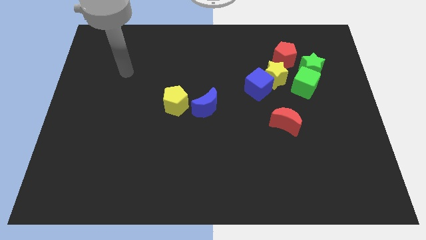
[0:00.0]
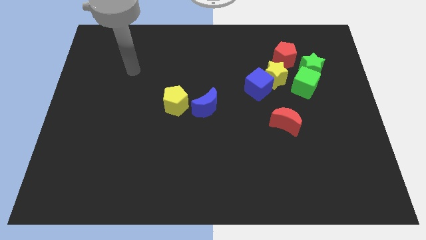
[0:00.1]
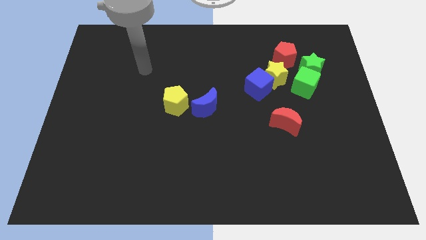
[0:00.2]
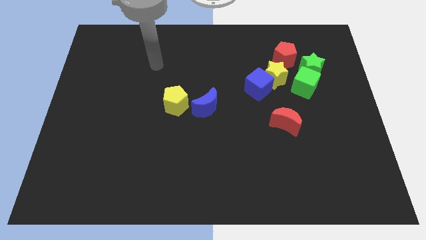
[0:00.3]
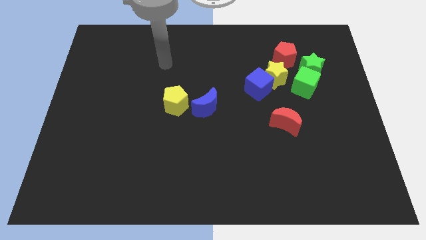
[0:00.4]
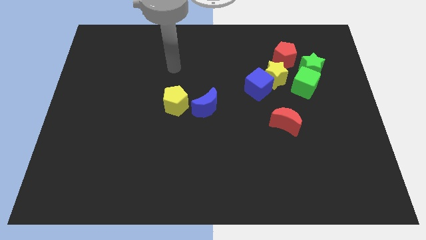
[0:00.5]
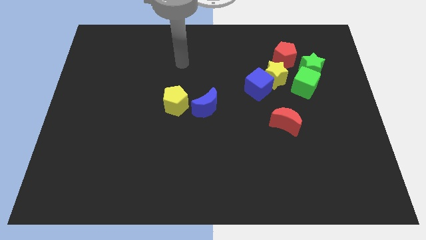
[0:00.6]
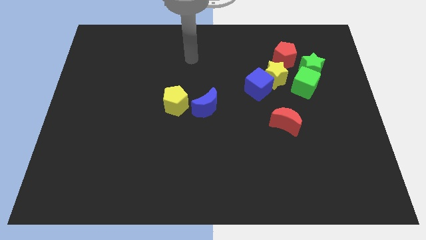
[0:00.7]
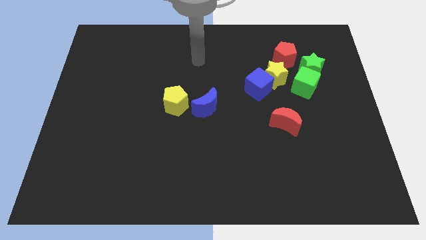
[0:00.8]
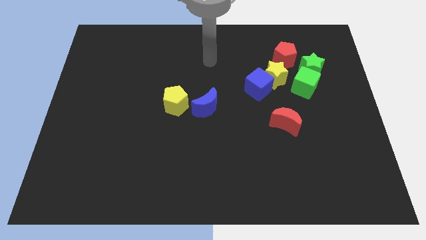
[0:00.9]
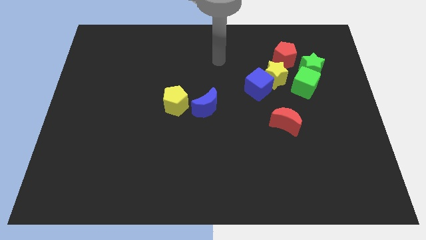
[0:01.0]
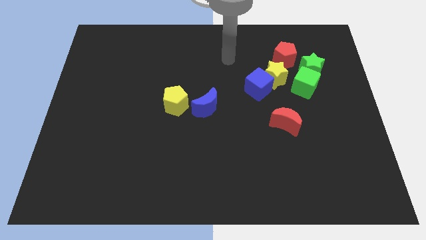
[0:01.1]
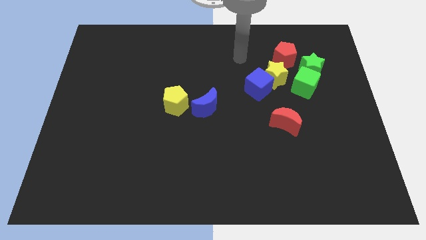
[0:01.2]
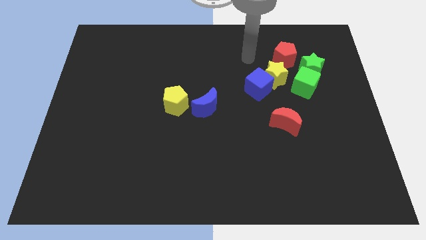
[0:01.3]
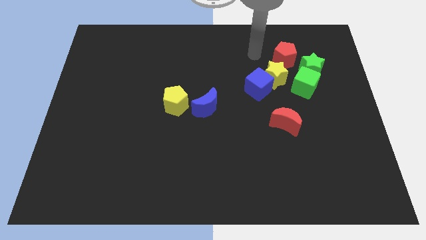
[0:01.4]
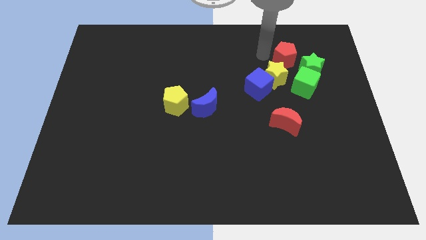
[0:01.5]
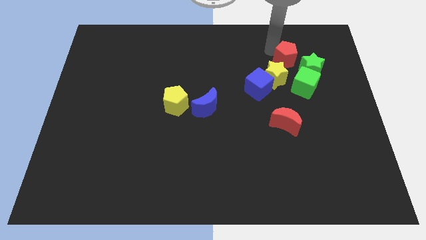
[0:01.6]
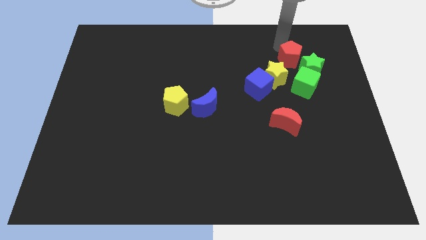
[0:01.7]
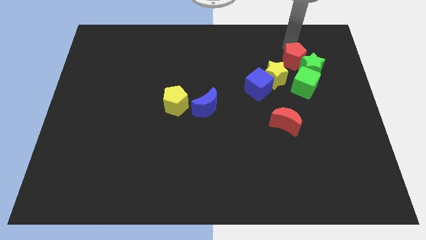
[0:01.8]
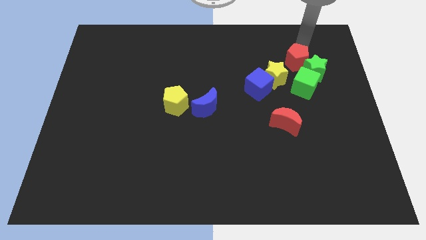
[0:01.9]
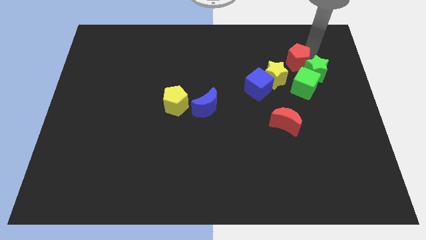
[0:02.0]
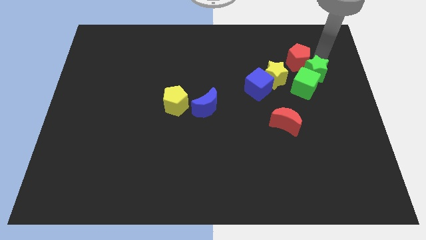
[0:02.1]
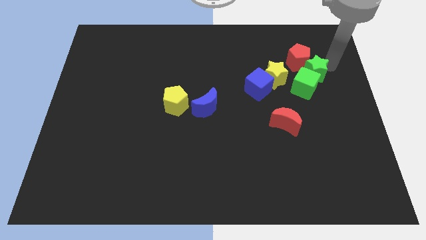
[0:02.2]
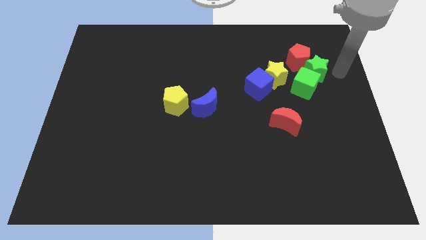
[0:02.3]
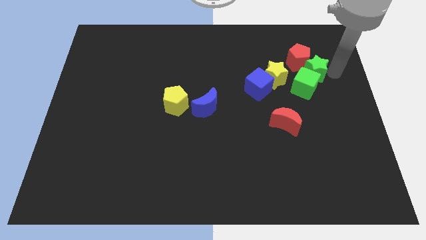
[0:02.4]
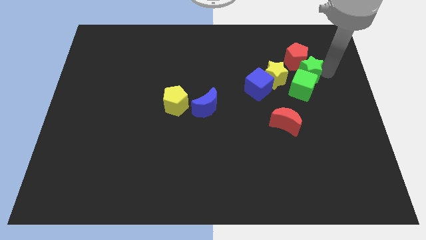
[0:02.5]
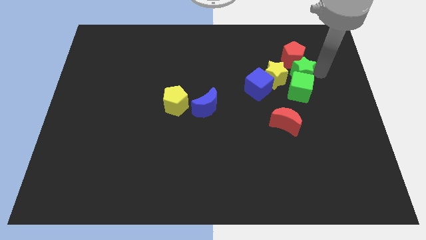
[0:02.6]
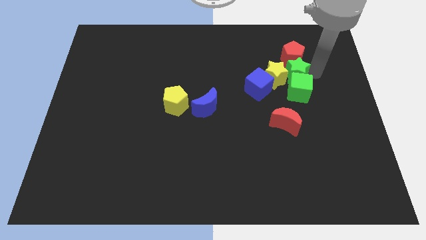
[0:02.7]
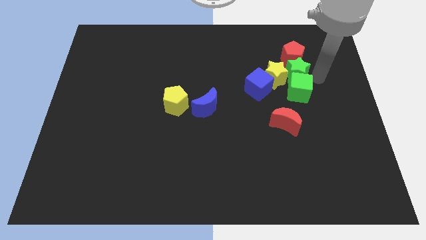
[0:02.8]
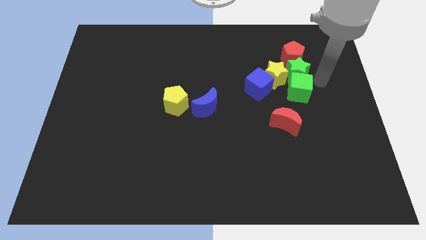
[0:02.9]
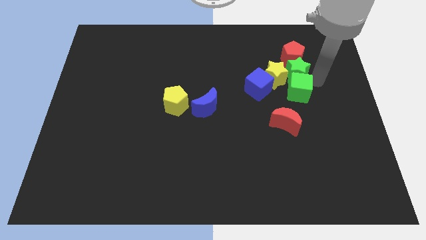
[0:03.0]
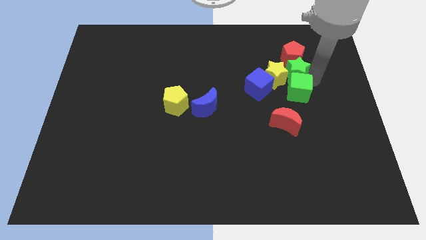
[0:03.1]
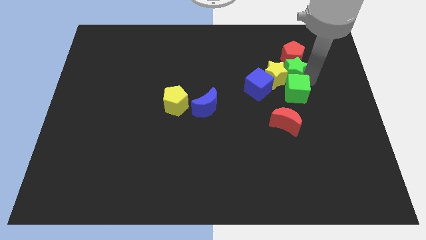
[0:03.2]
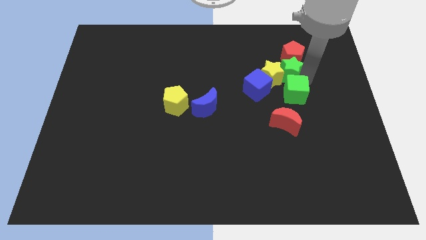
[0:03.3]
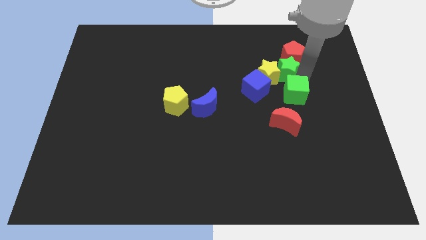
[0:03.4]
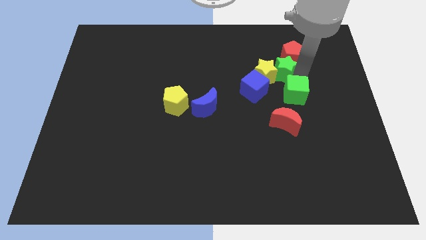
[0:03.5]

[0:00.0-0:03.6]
push the green star to the left a little

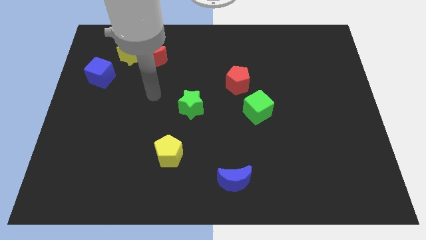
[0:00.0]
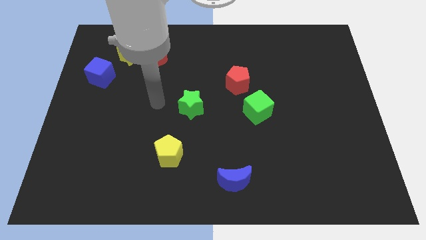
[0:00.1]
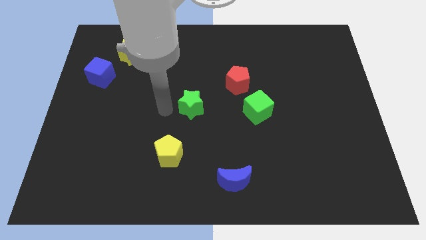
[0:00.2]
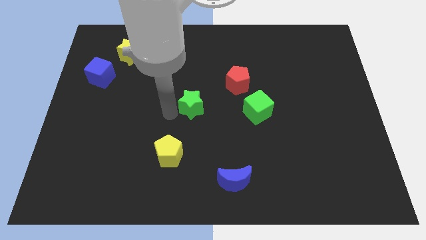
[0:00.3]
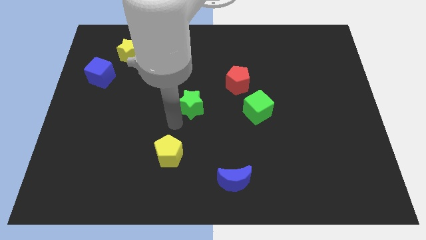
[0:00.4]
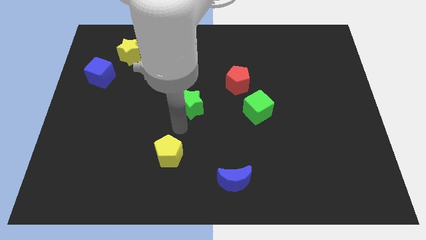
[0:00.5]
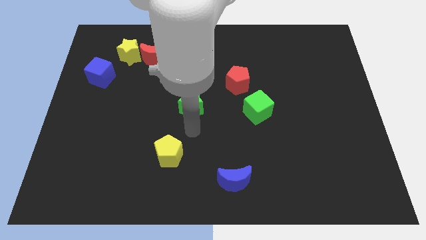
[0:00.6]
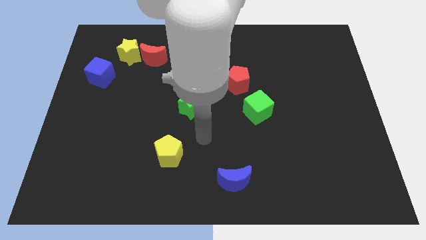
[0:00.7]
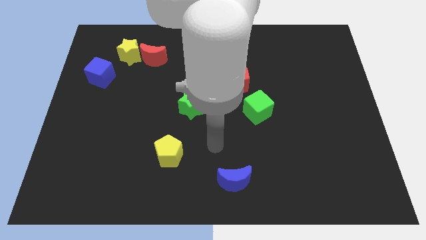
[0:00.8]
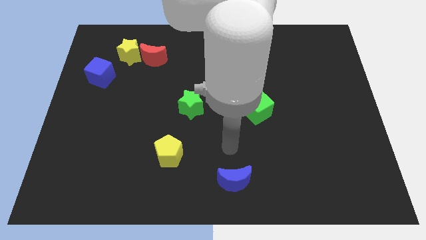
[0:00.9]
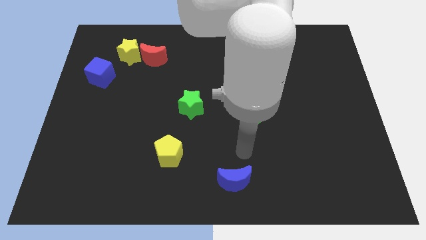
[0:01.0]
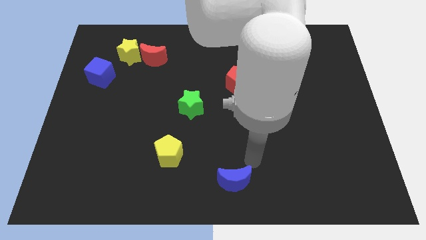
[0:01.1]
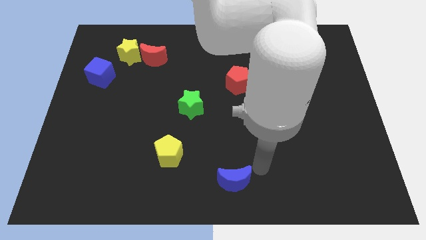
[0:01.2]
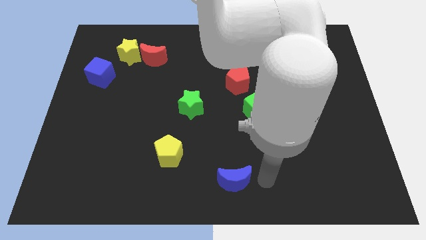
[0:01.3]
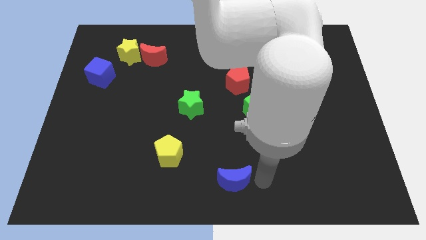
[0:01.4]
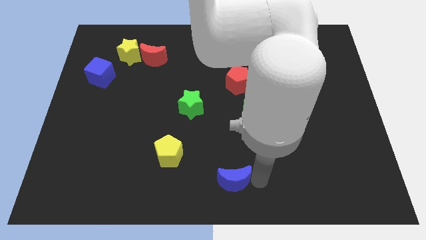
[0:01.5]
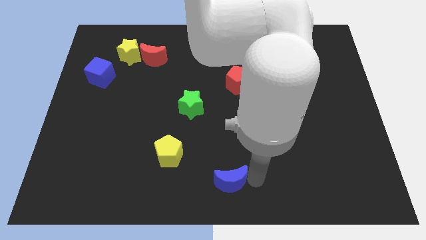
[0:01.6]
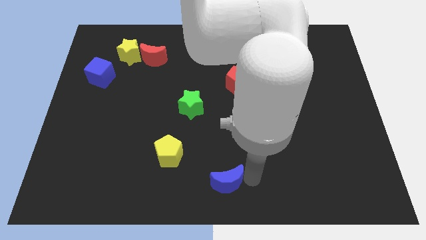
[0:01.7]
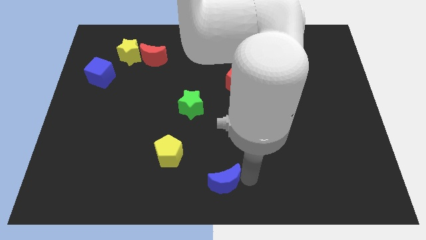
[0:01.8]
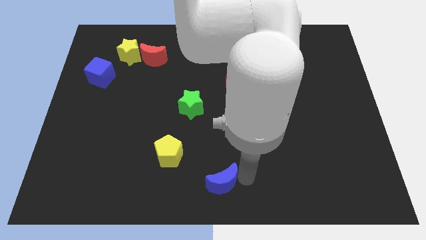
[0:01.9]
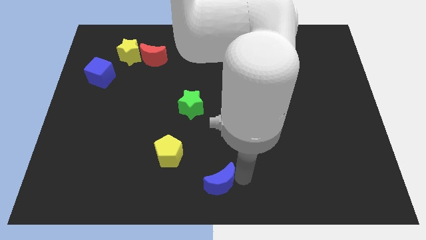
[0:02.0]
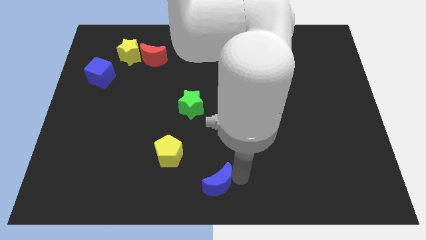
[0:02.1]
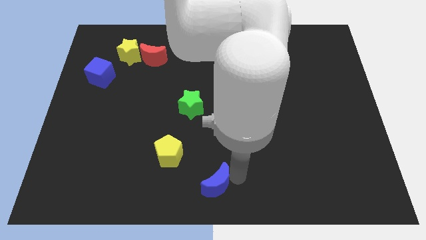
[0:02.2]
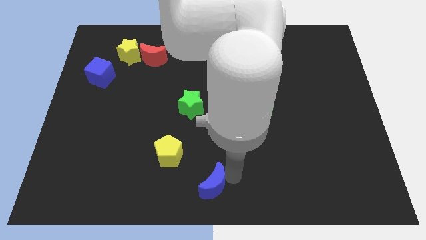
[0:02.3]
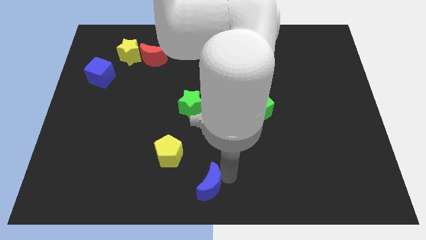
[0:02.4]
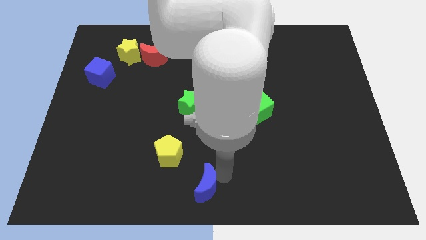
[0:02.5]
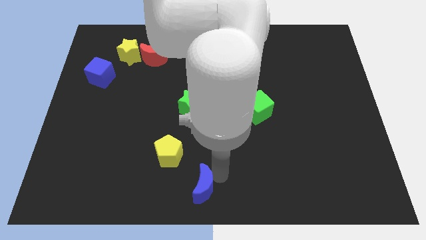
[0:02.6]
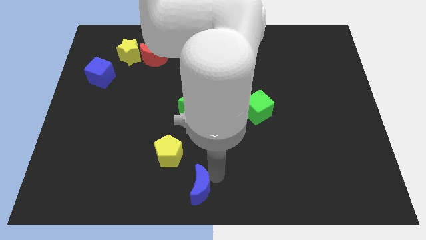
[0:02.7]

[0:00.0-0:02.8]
slightly move the blue moon left

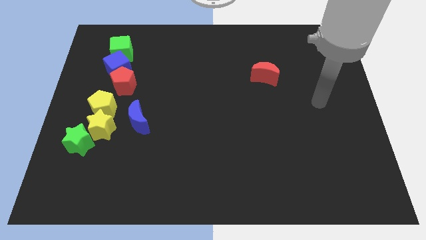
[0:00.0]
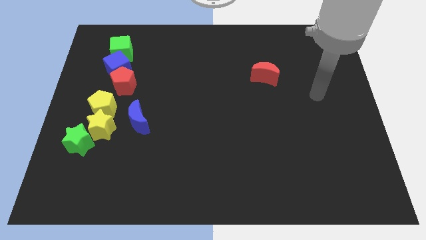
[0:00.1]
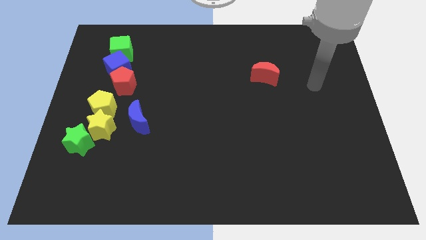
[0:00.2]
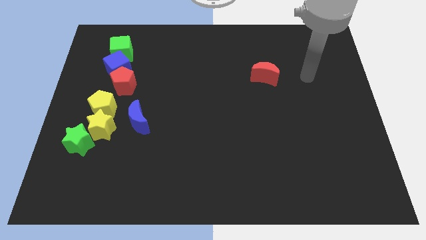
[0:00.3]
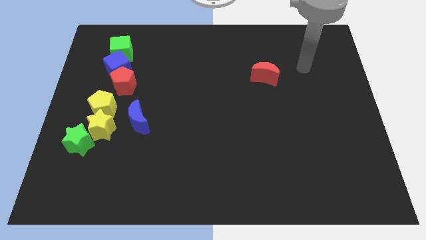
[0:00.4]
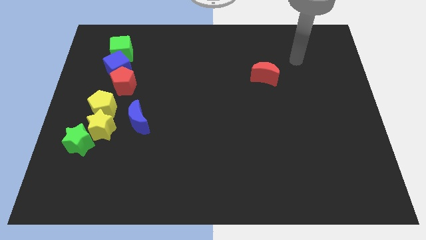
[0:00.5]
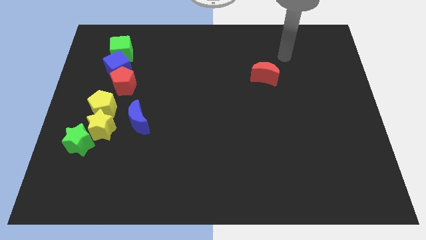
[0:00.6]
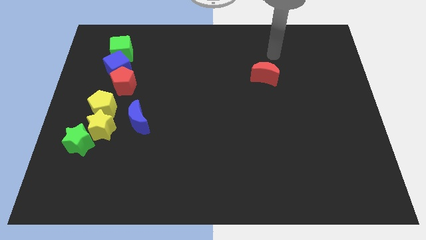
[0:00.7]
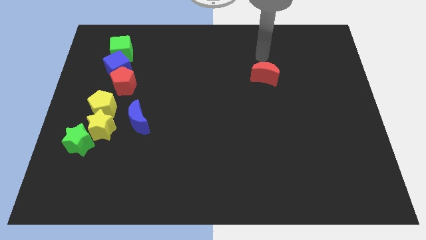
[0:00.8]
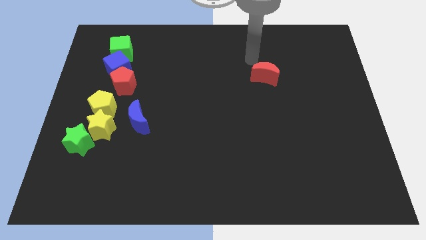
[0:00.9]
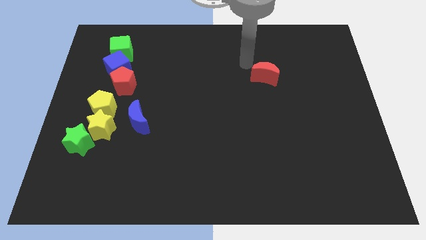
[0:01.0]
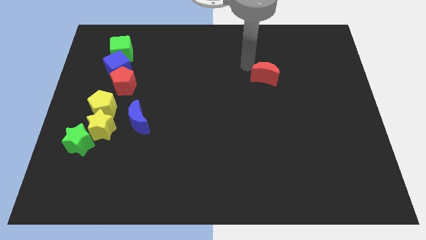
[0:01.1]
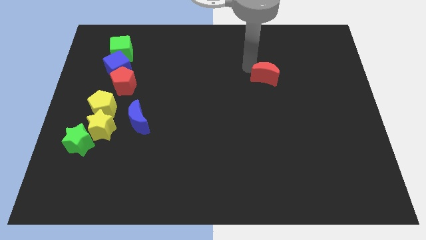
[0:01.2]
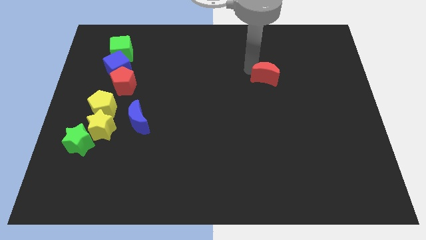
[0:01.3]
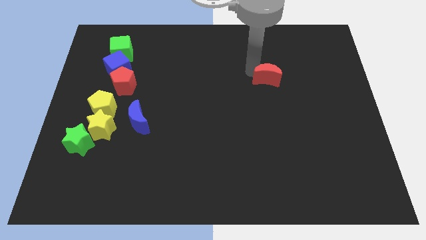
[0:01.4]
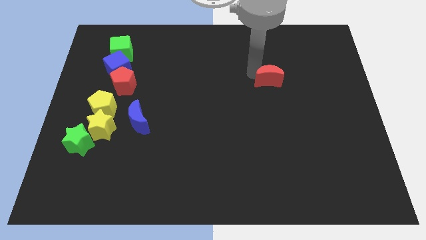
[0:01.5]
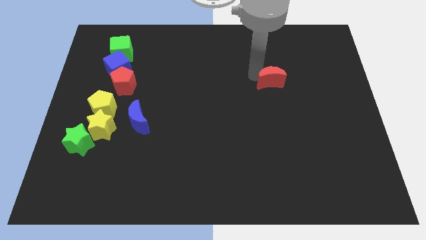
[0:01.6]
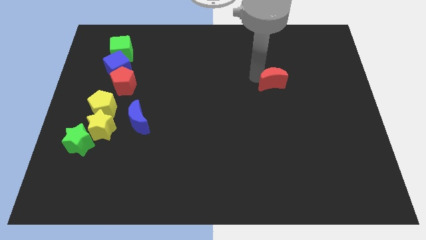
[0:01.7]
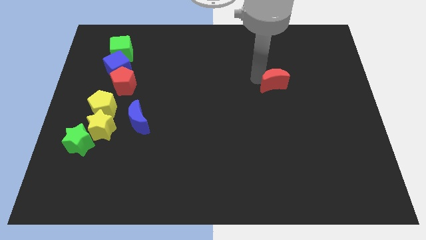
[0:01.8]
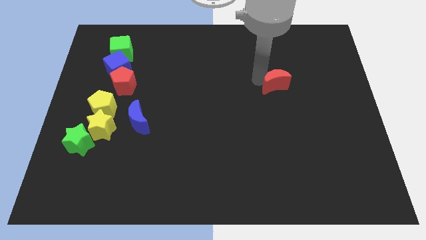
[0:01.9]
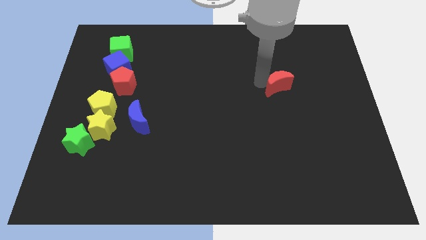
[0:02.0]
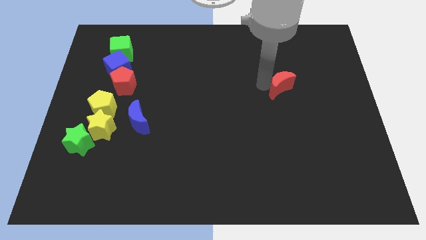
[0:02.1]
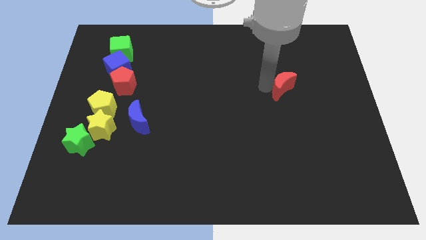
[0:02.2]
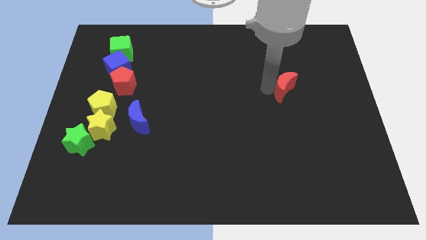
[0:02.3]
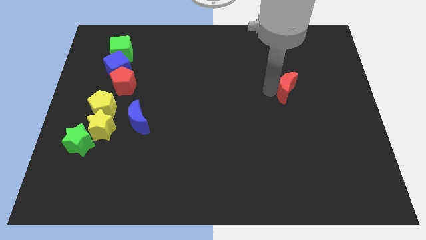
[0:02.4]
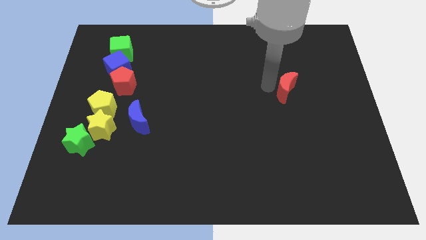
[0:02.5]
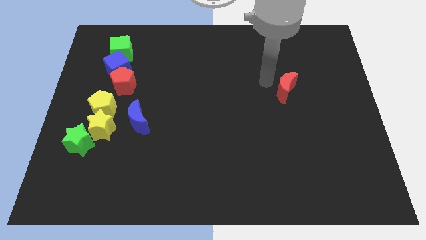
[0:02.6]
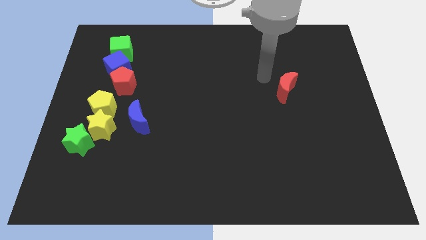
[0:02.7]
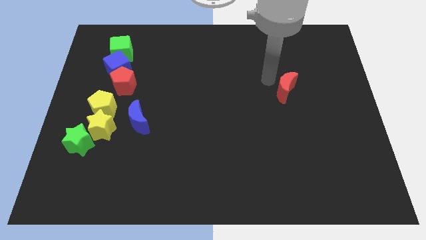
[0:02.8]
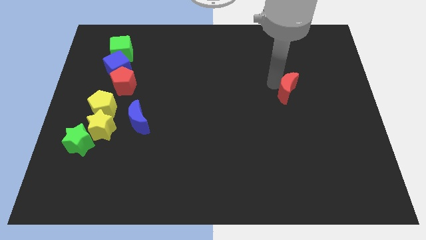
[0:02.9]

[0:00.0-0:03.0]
move the red moon a little downwards and to the right diagonally
